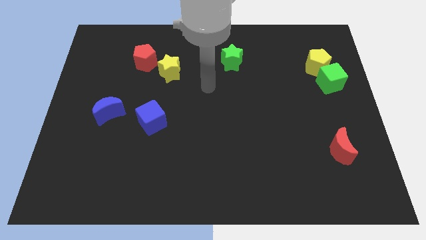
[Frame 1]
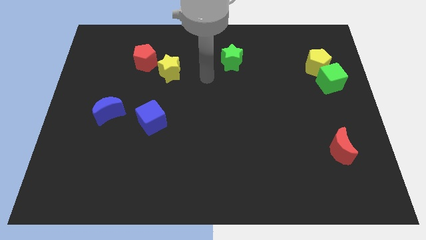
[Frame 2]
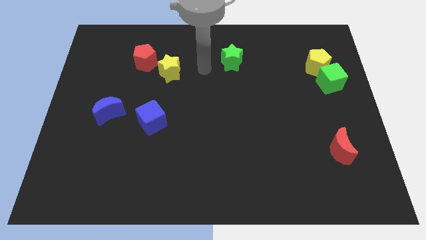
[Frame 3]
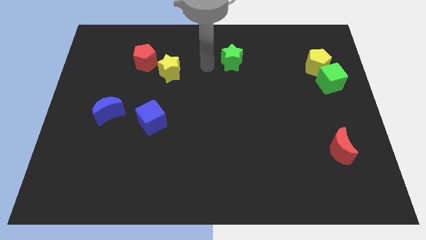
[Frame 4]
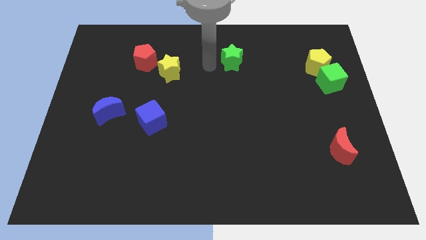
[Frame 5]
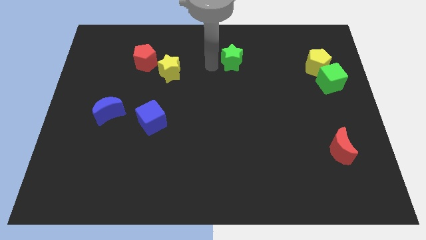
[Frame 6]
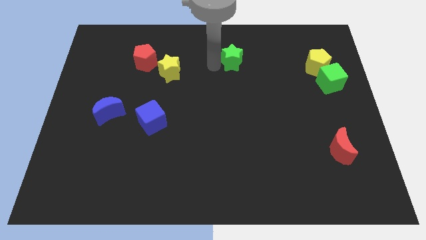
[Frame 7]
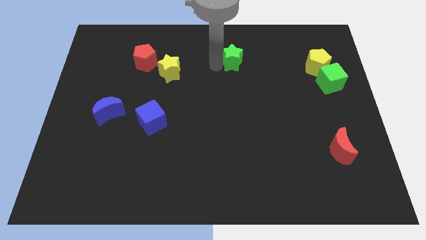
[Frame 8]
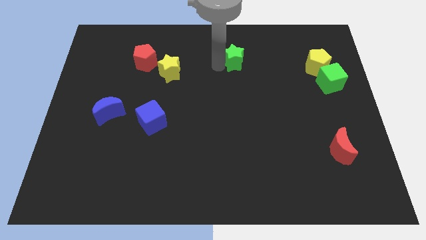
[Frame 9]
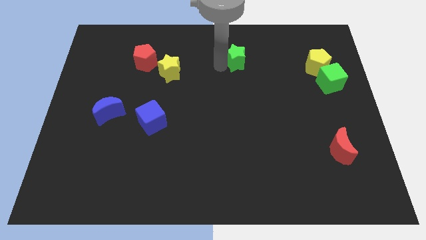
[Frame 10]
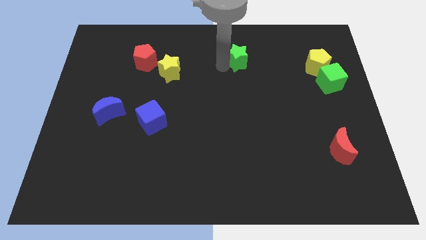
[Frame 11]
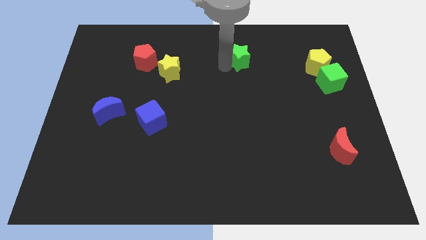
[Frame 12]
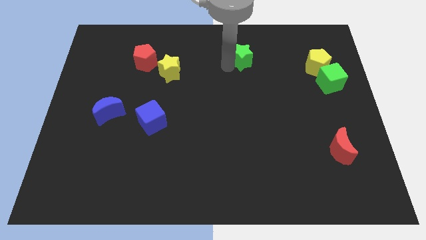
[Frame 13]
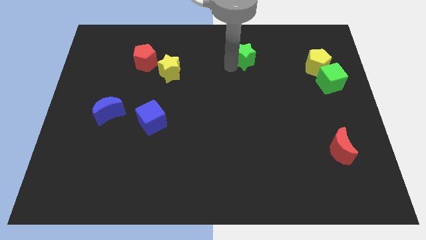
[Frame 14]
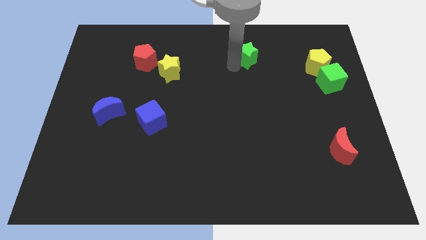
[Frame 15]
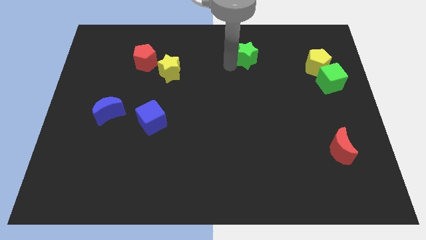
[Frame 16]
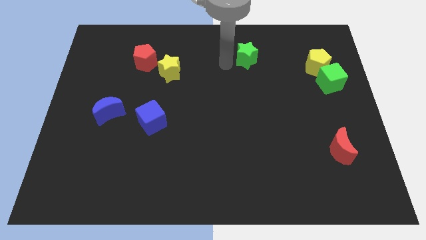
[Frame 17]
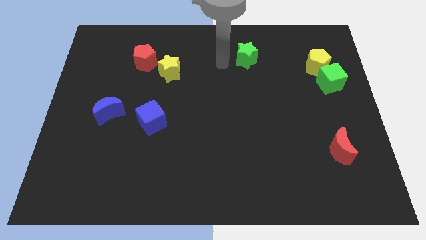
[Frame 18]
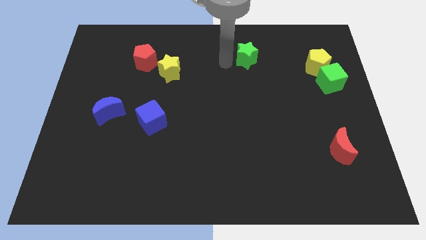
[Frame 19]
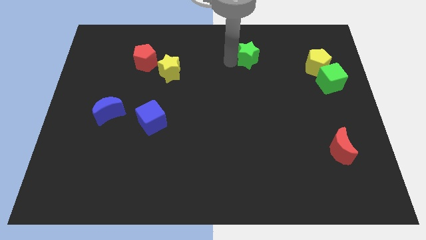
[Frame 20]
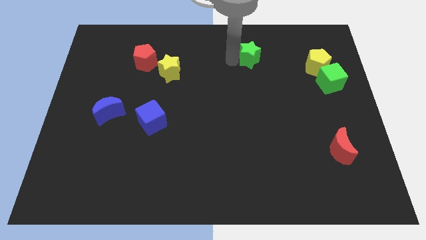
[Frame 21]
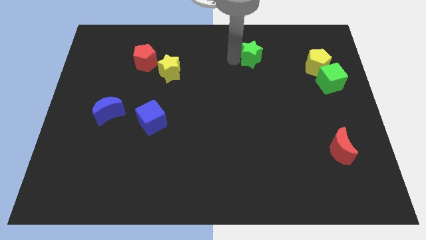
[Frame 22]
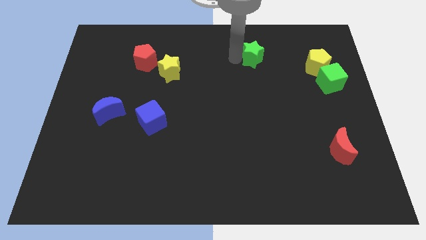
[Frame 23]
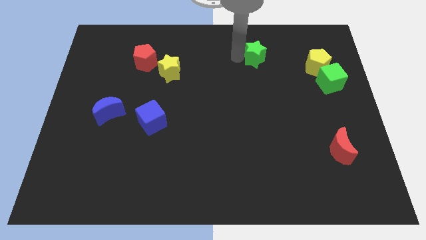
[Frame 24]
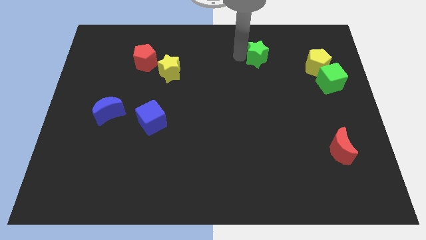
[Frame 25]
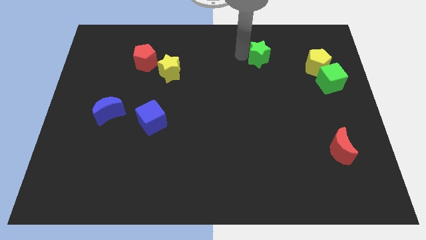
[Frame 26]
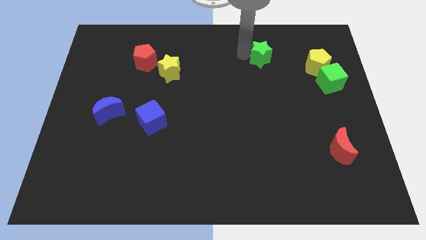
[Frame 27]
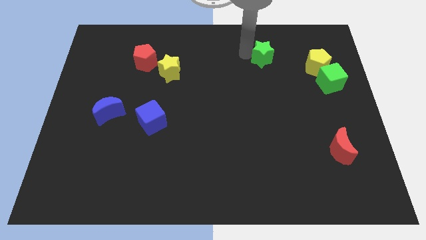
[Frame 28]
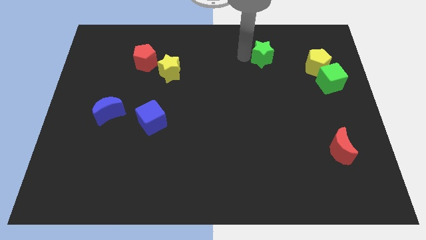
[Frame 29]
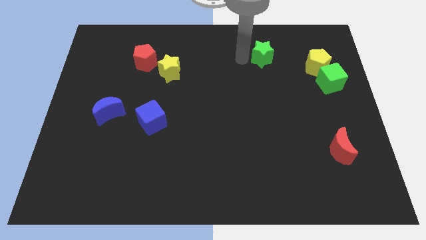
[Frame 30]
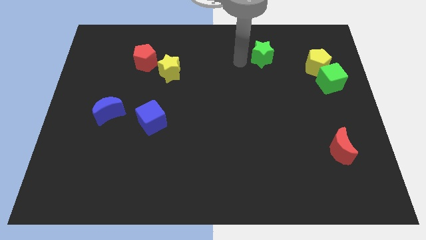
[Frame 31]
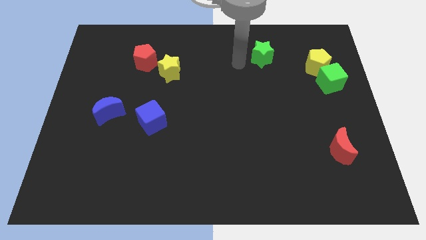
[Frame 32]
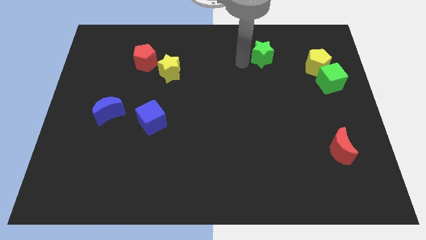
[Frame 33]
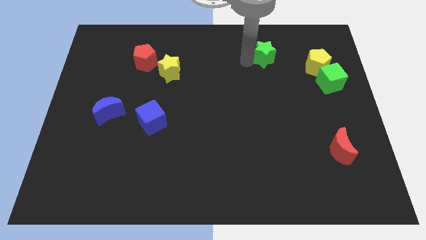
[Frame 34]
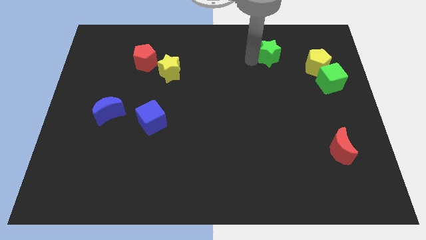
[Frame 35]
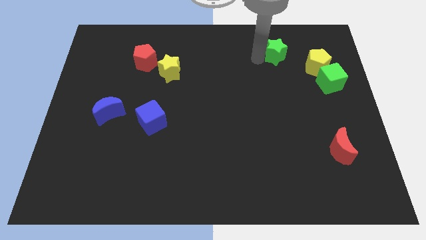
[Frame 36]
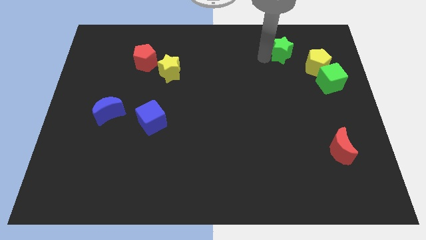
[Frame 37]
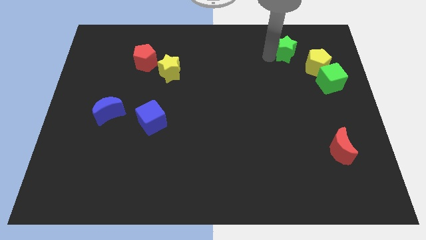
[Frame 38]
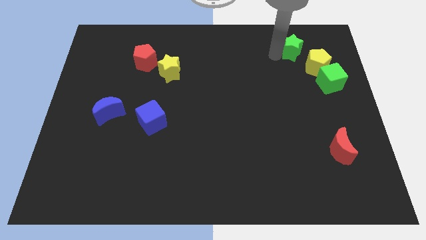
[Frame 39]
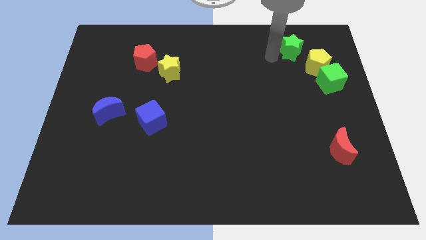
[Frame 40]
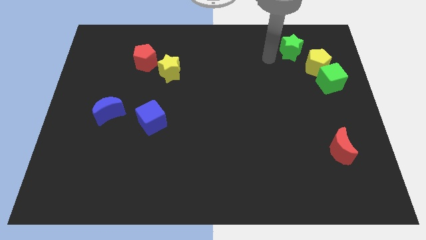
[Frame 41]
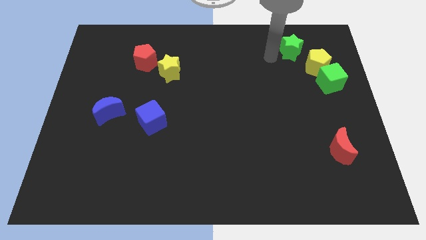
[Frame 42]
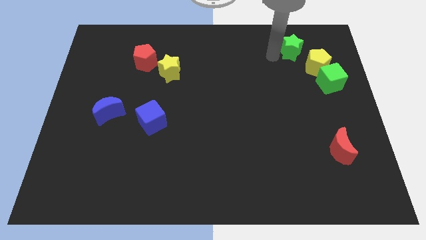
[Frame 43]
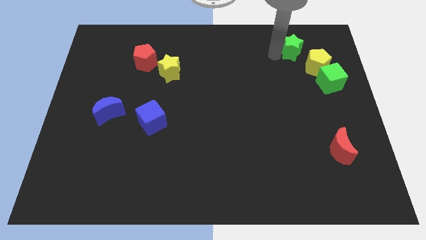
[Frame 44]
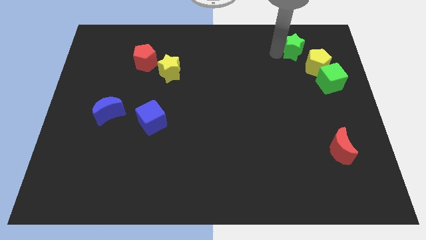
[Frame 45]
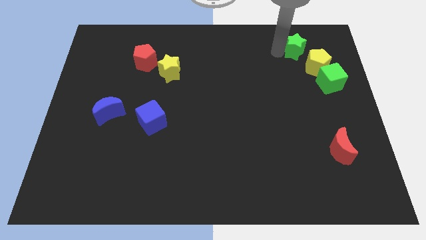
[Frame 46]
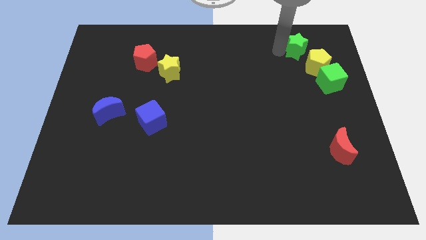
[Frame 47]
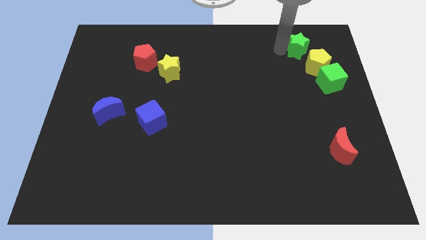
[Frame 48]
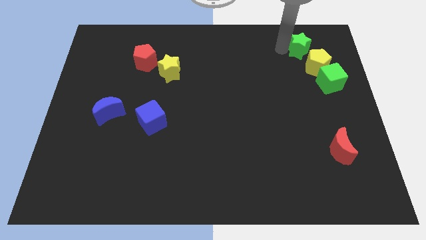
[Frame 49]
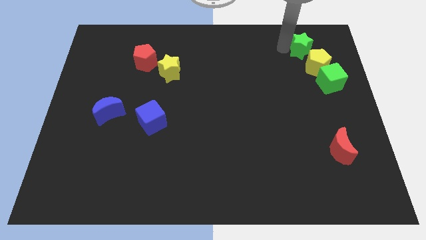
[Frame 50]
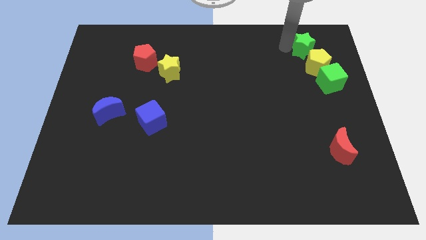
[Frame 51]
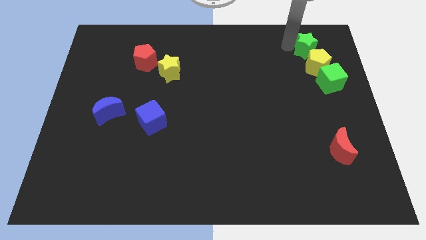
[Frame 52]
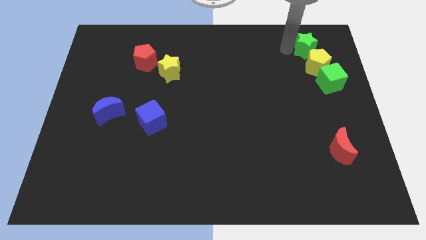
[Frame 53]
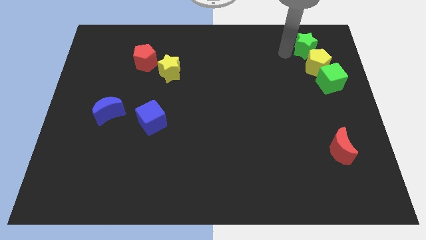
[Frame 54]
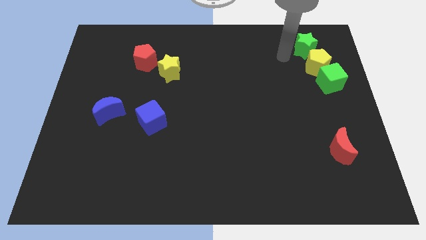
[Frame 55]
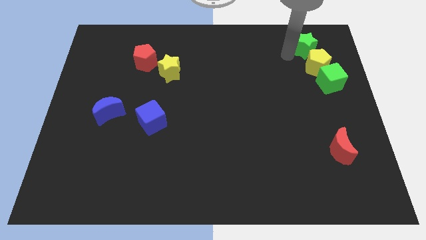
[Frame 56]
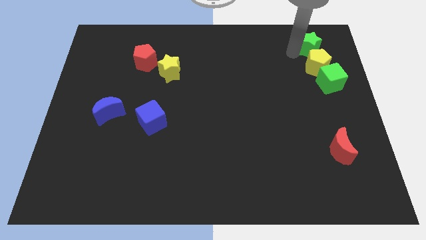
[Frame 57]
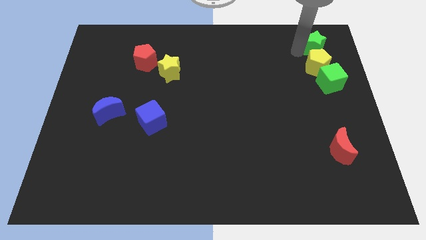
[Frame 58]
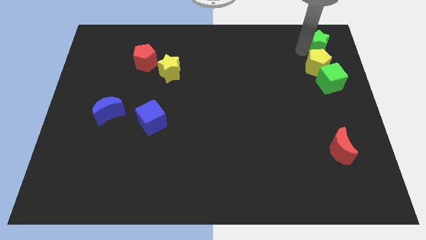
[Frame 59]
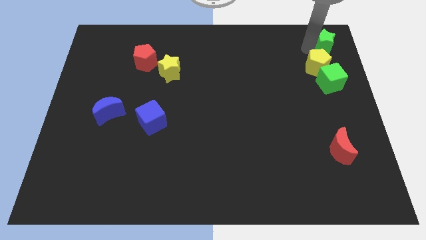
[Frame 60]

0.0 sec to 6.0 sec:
put the green star to the top right corner
